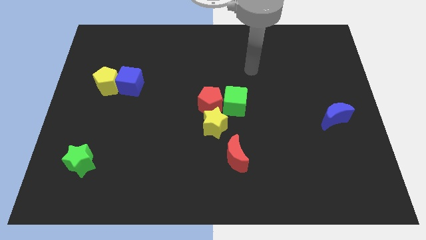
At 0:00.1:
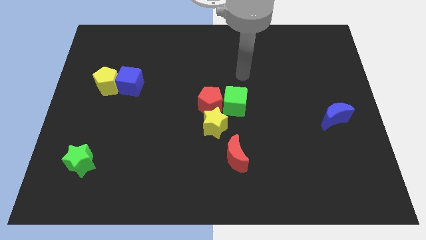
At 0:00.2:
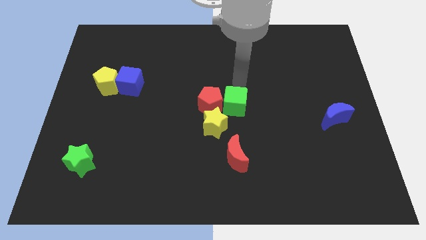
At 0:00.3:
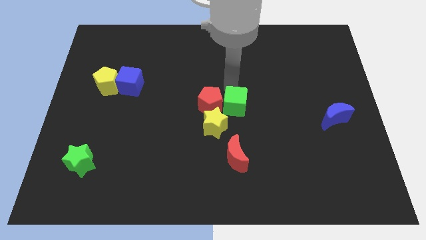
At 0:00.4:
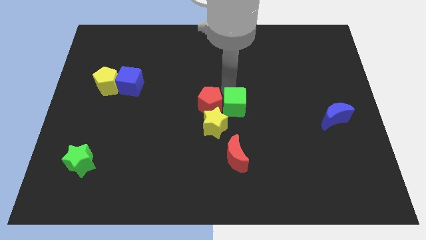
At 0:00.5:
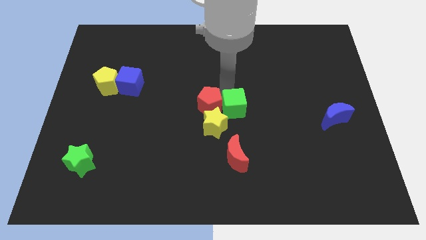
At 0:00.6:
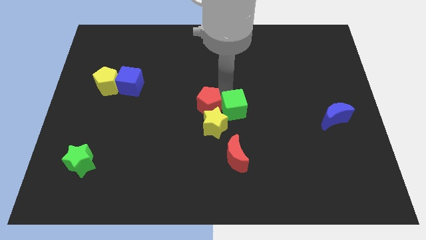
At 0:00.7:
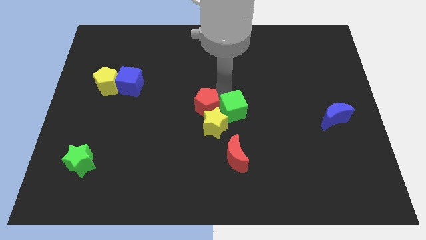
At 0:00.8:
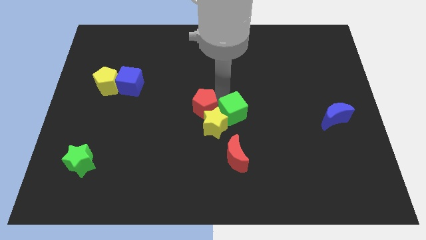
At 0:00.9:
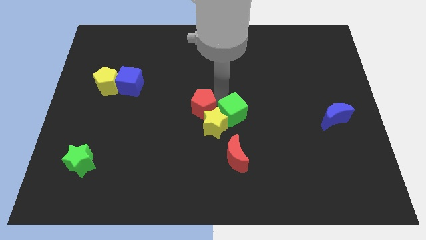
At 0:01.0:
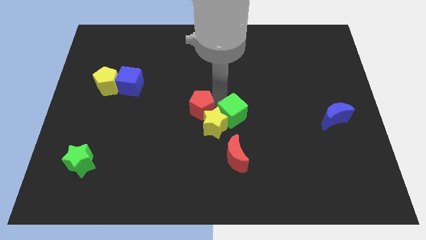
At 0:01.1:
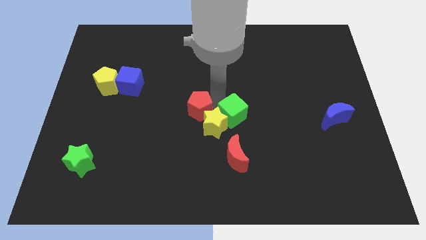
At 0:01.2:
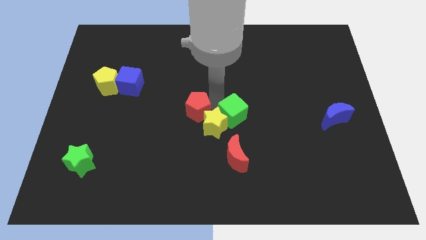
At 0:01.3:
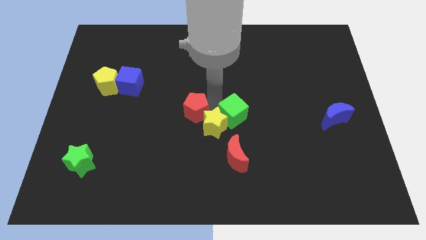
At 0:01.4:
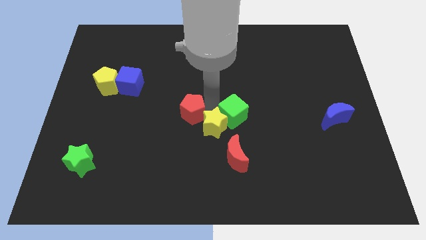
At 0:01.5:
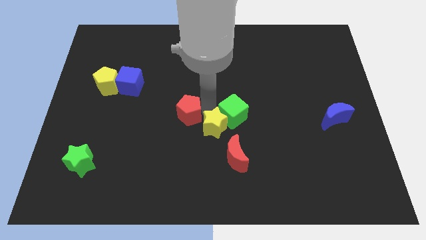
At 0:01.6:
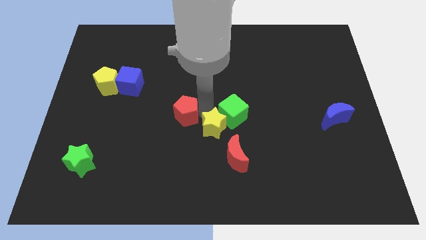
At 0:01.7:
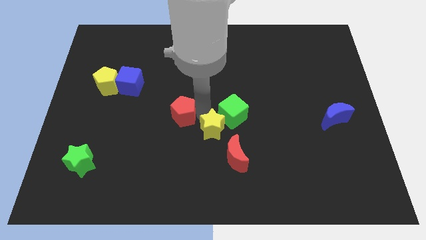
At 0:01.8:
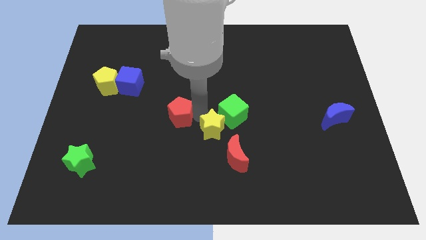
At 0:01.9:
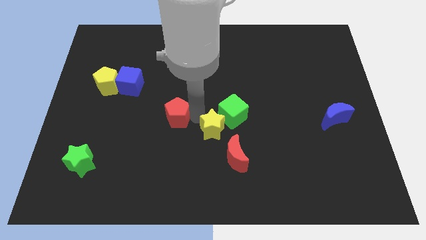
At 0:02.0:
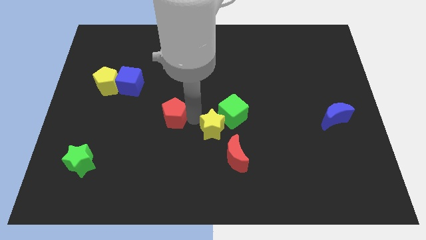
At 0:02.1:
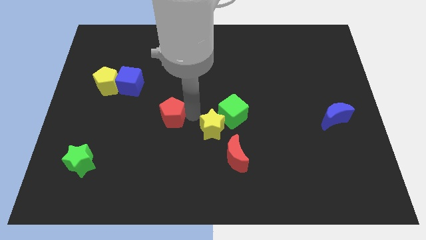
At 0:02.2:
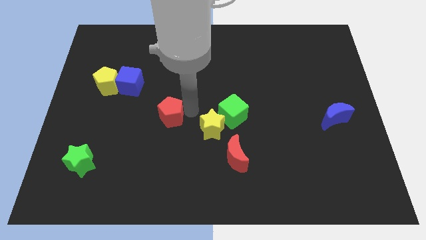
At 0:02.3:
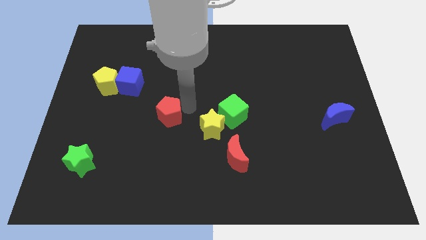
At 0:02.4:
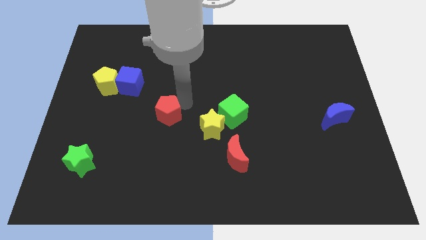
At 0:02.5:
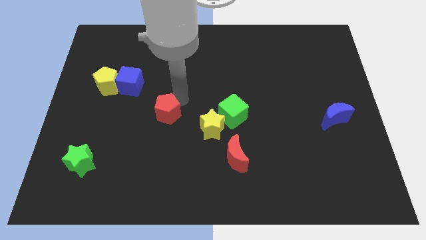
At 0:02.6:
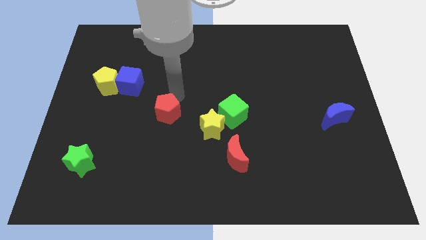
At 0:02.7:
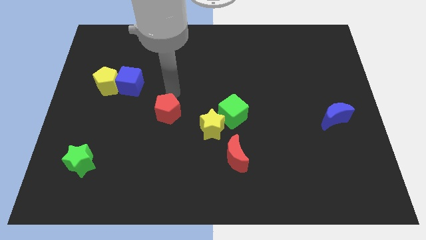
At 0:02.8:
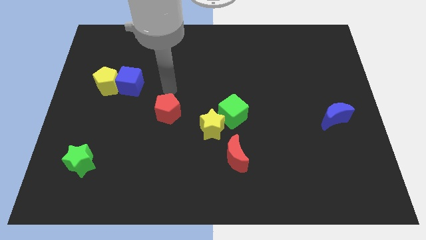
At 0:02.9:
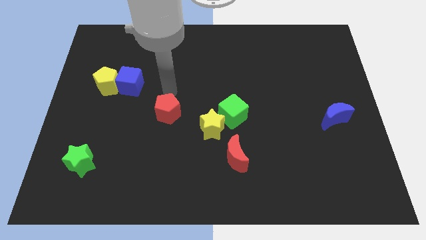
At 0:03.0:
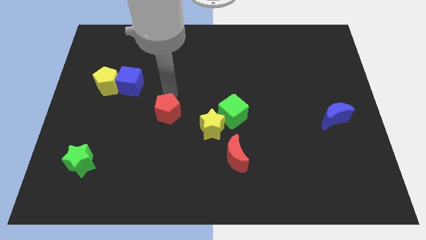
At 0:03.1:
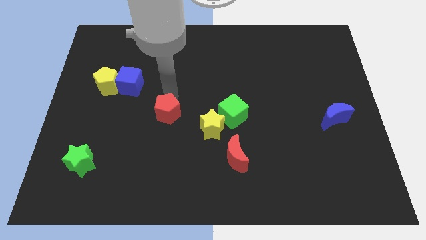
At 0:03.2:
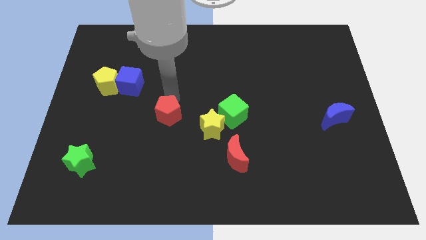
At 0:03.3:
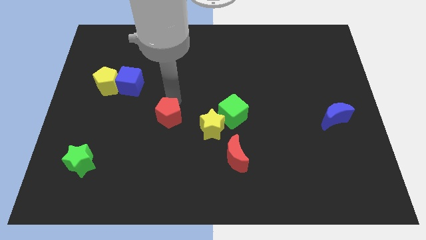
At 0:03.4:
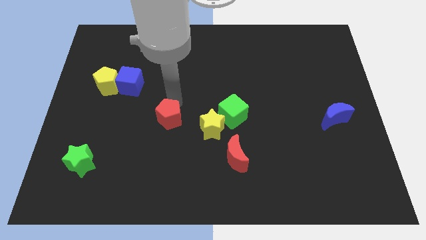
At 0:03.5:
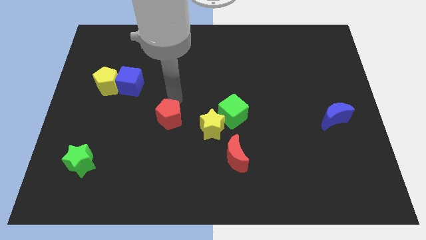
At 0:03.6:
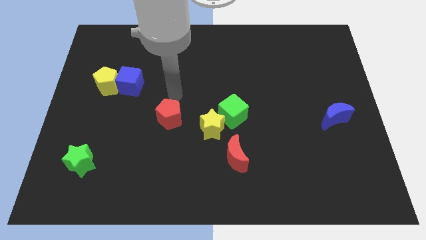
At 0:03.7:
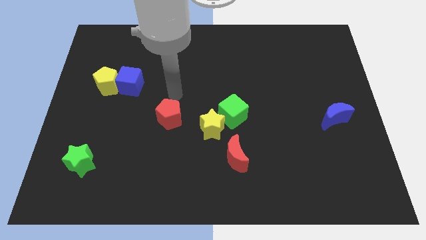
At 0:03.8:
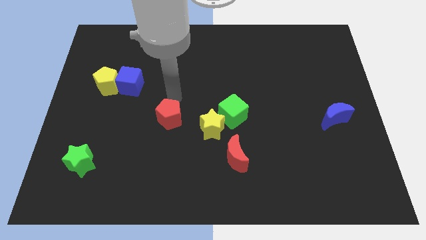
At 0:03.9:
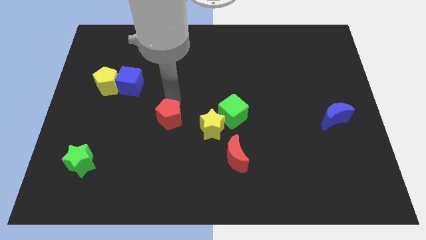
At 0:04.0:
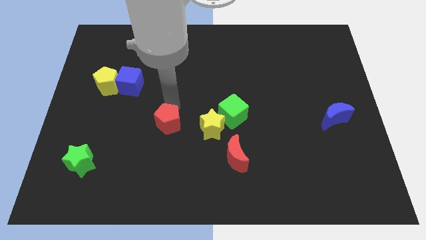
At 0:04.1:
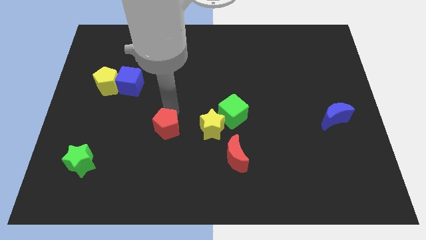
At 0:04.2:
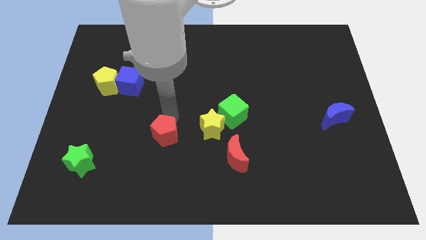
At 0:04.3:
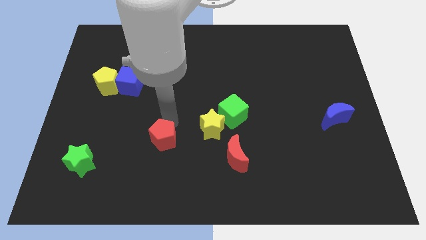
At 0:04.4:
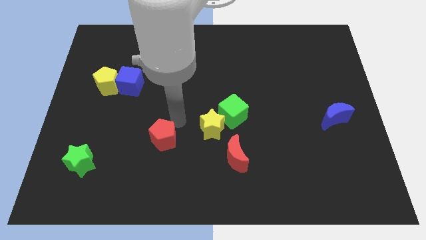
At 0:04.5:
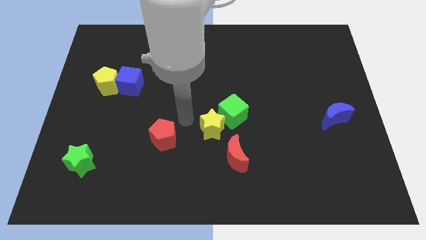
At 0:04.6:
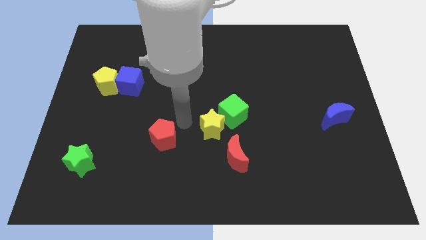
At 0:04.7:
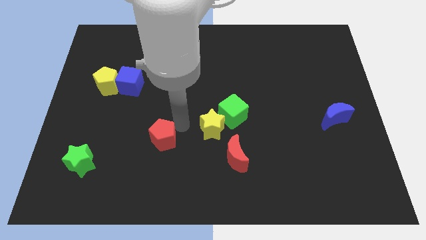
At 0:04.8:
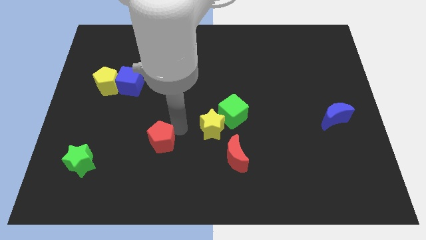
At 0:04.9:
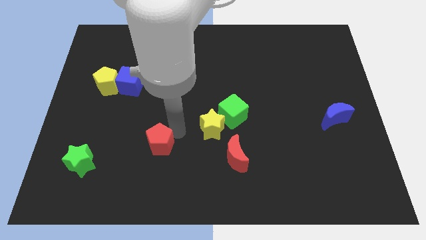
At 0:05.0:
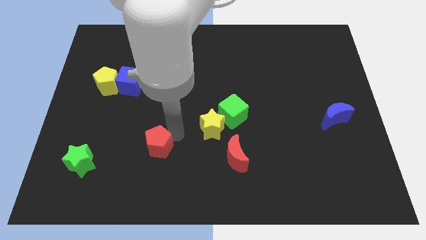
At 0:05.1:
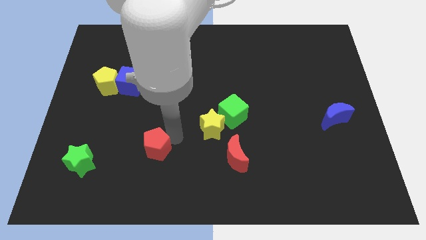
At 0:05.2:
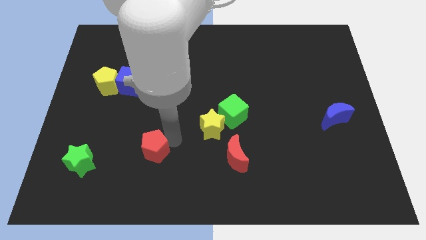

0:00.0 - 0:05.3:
push the red pentagon to the right side of the green star

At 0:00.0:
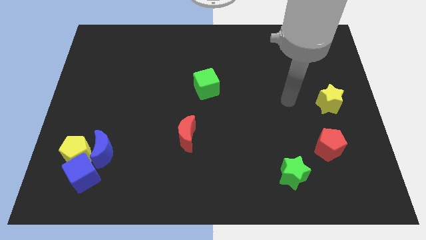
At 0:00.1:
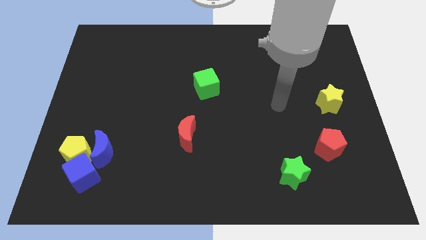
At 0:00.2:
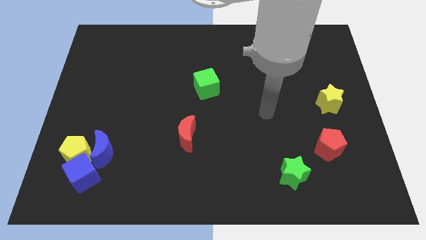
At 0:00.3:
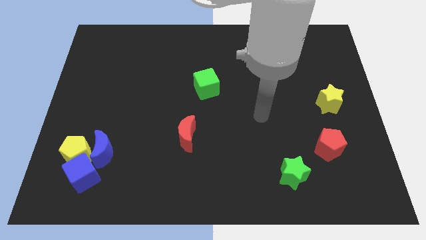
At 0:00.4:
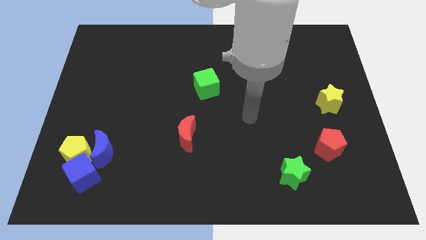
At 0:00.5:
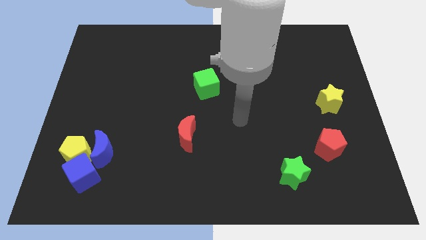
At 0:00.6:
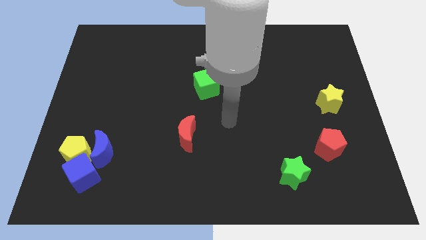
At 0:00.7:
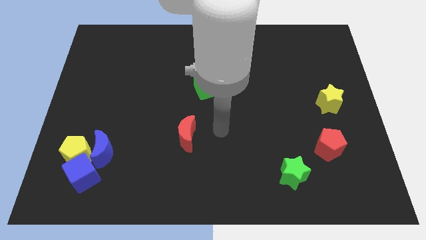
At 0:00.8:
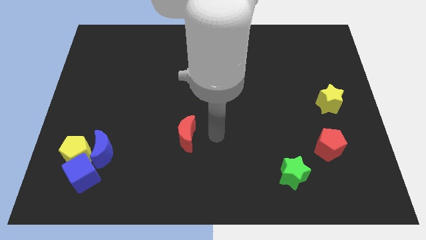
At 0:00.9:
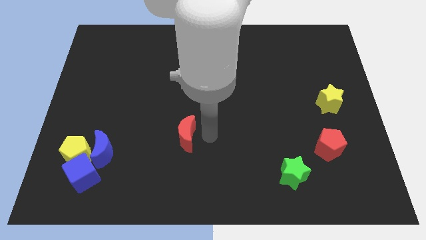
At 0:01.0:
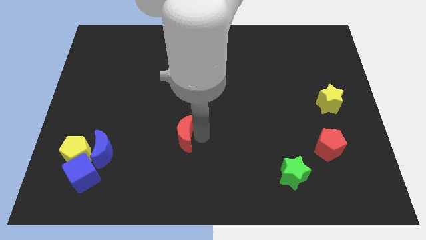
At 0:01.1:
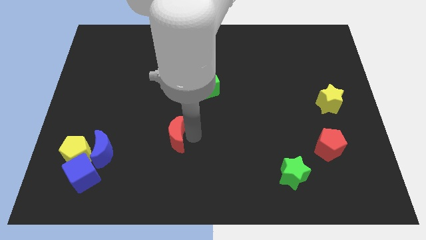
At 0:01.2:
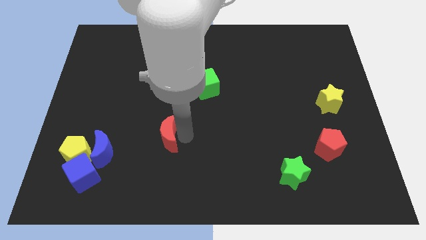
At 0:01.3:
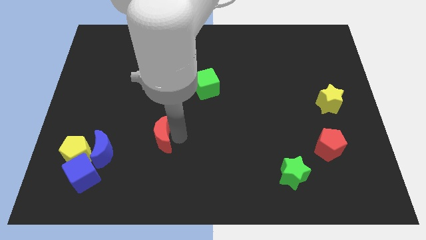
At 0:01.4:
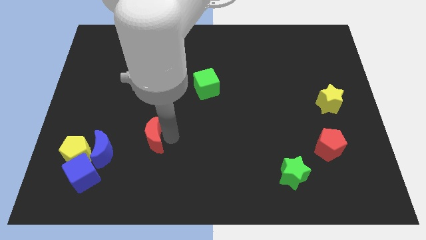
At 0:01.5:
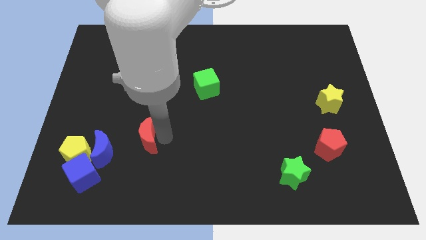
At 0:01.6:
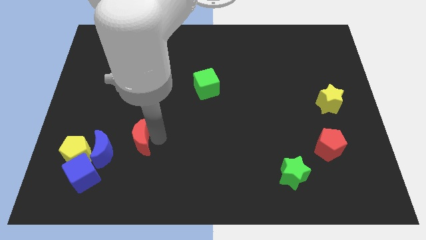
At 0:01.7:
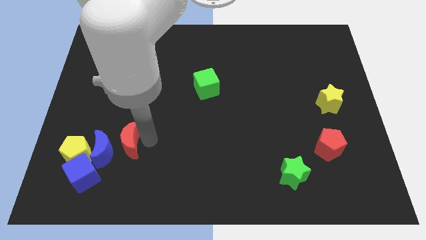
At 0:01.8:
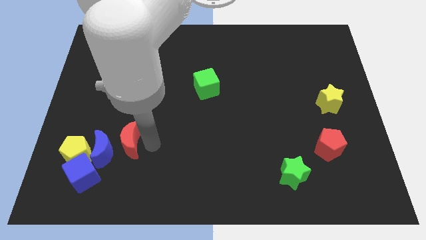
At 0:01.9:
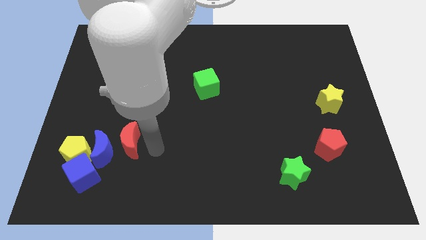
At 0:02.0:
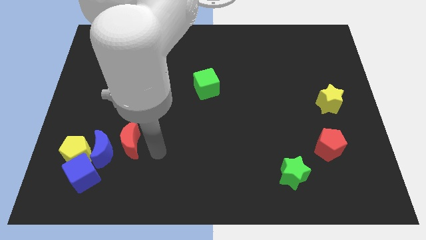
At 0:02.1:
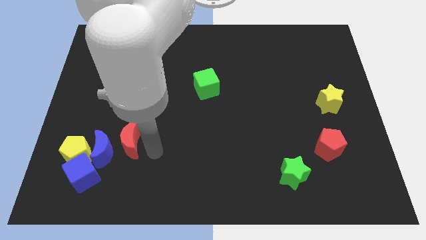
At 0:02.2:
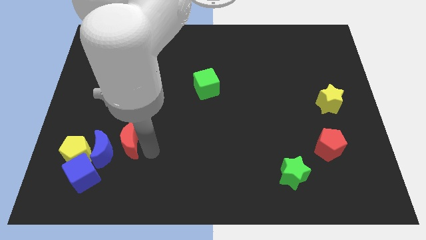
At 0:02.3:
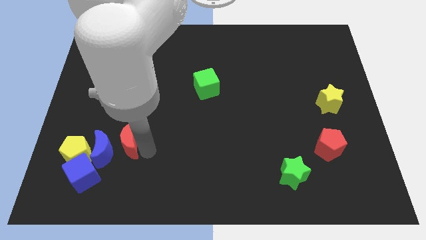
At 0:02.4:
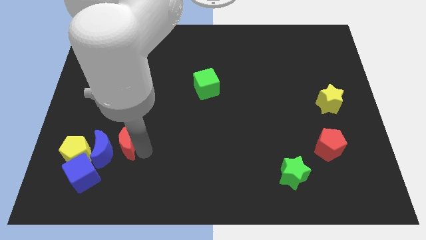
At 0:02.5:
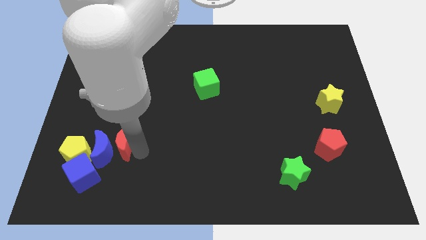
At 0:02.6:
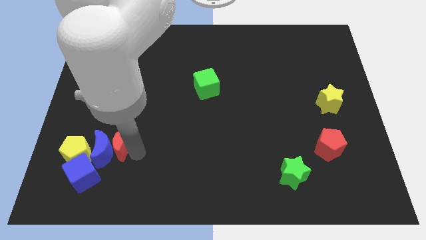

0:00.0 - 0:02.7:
push the red moon to the top right of the yellow pentagon
